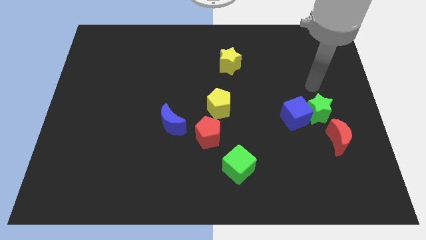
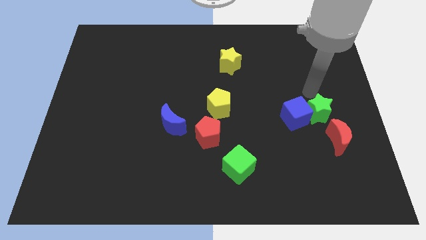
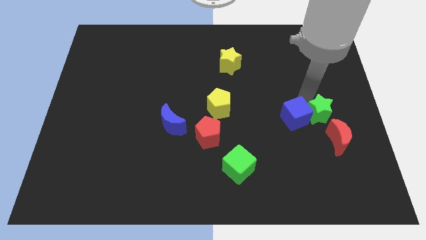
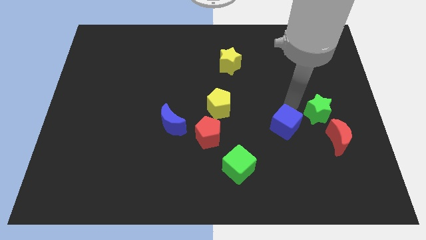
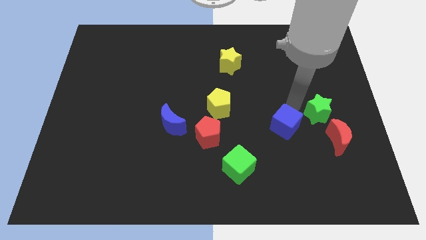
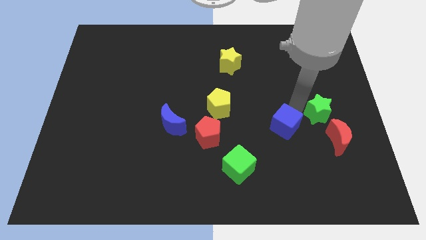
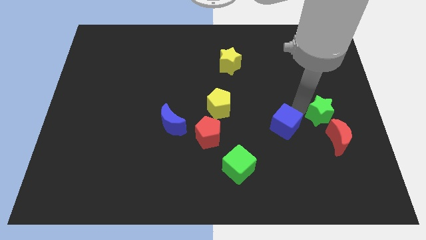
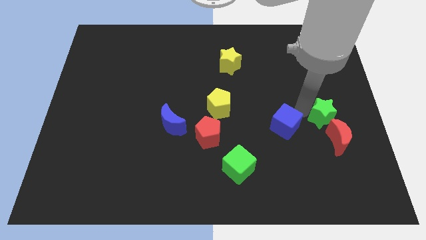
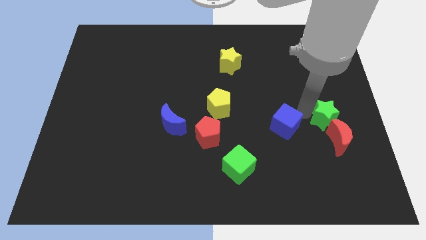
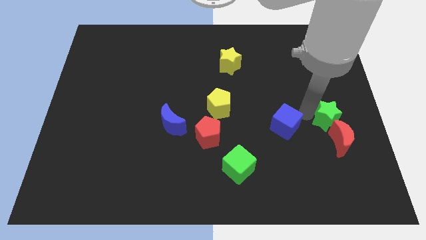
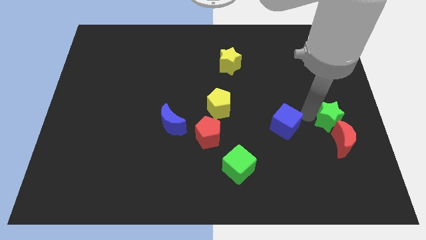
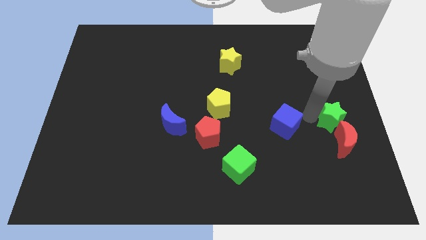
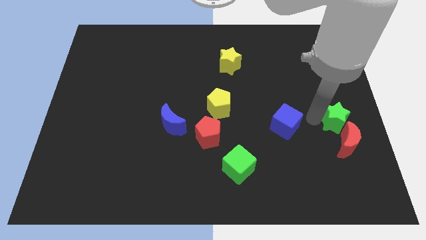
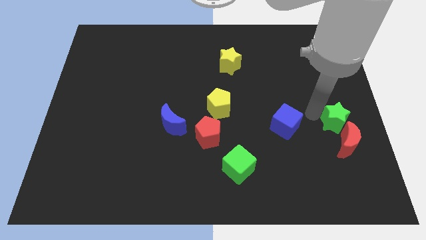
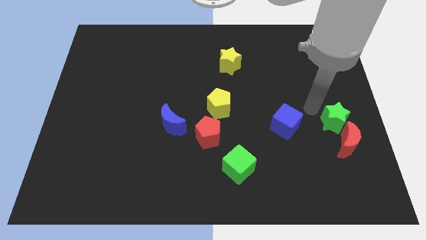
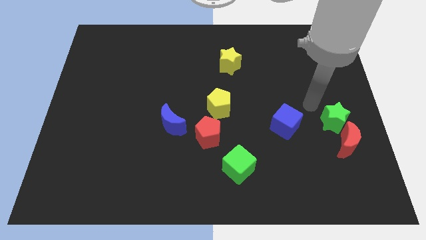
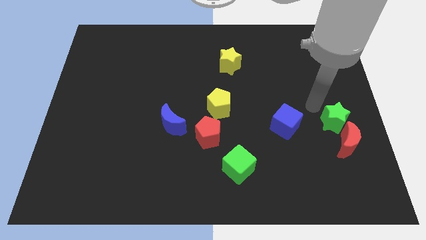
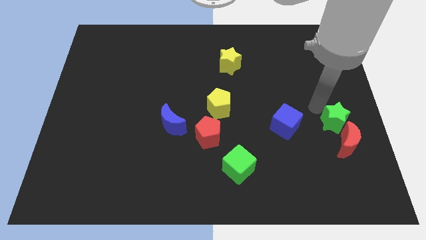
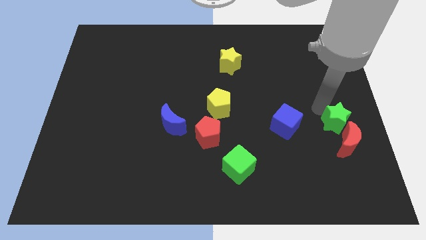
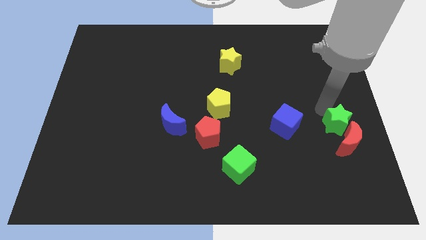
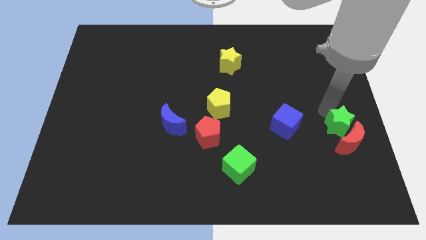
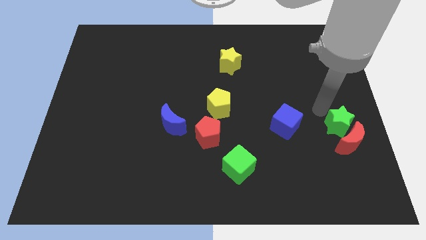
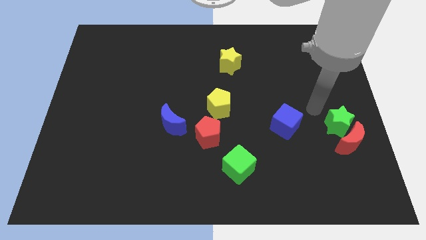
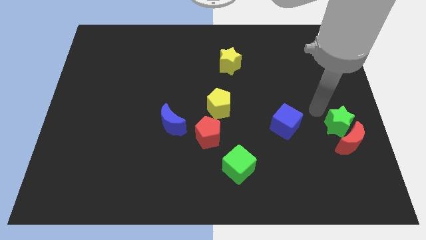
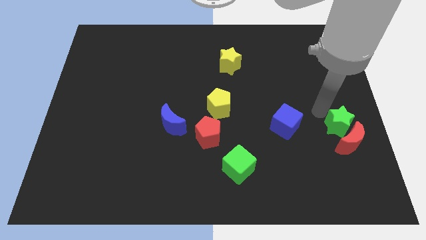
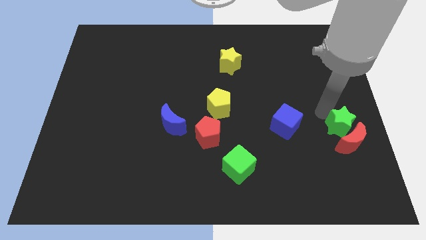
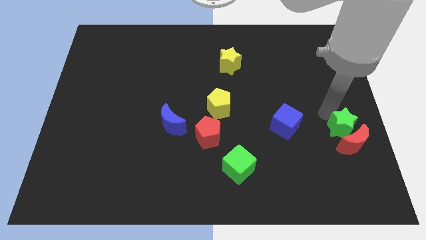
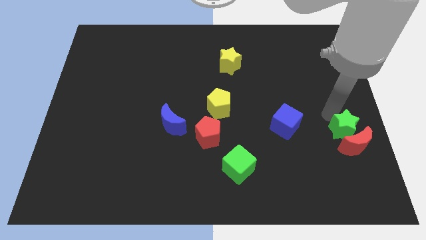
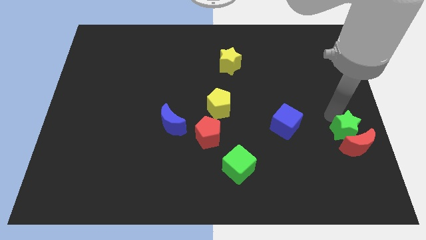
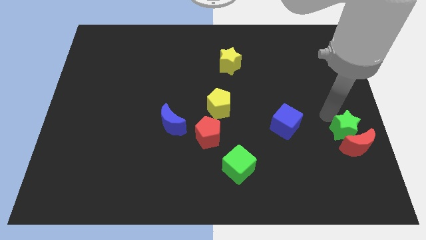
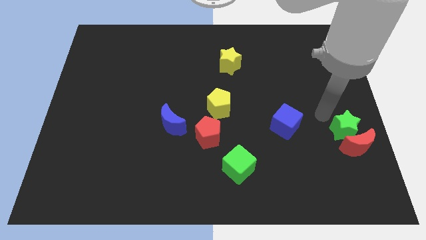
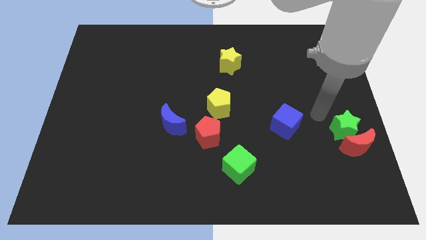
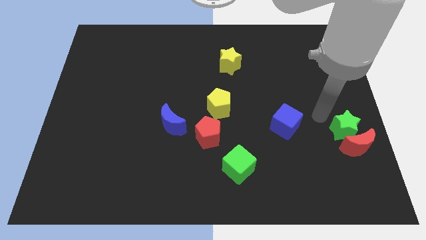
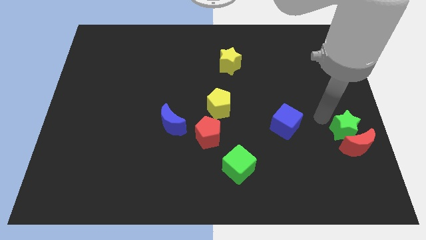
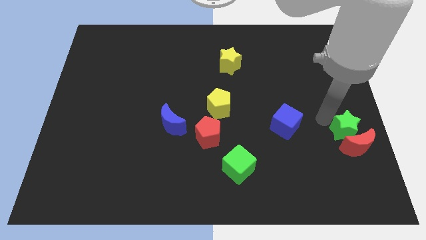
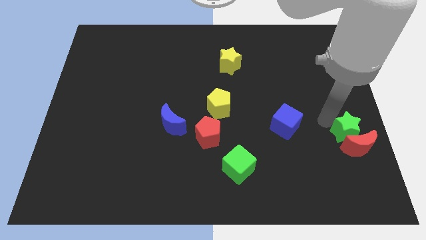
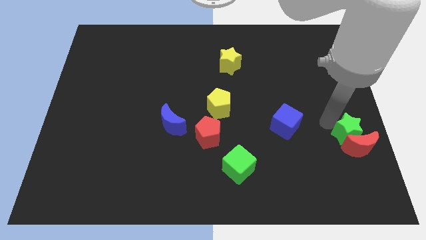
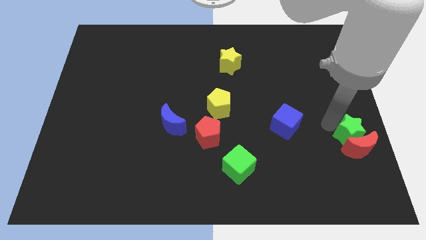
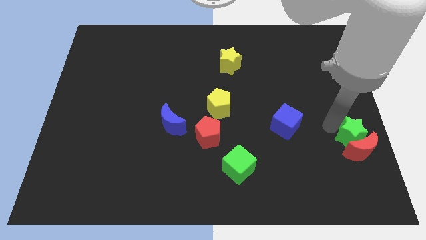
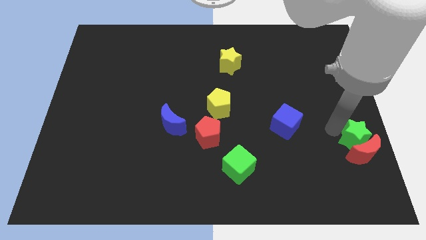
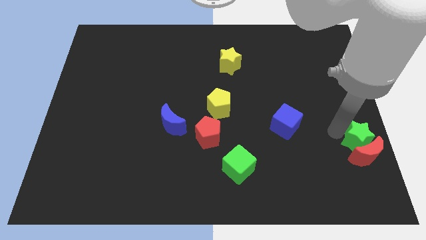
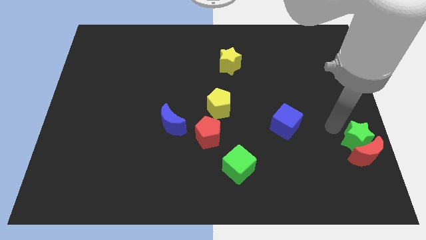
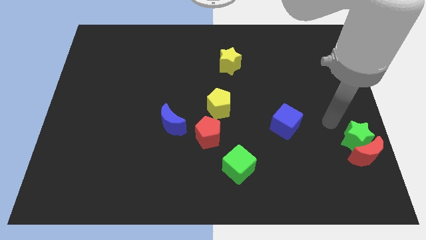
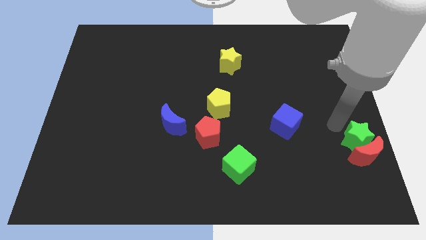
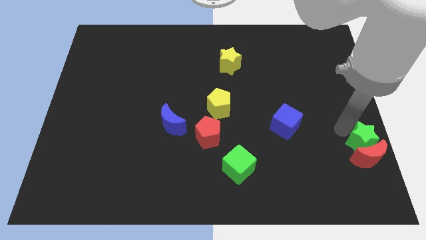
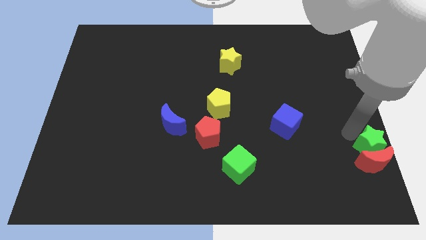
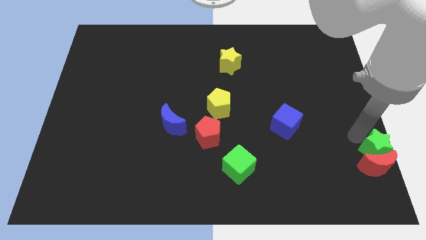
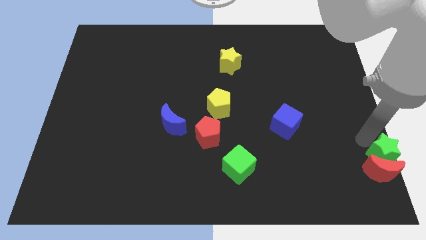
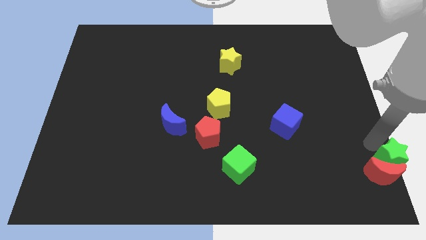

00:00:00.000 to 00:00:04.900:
put the green star to the bottom right

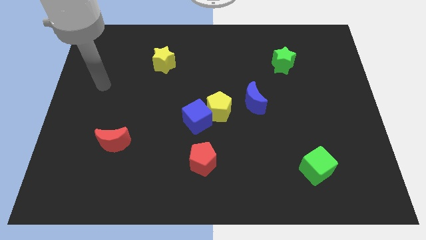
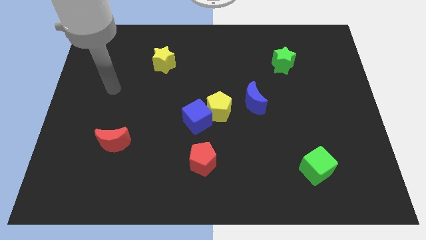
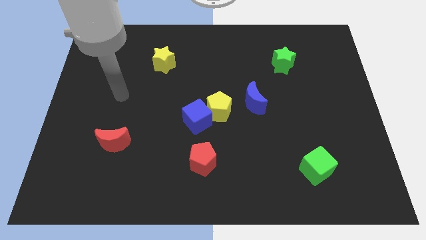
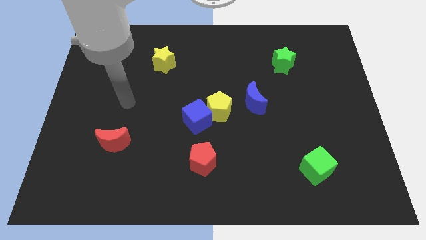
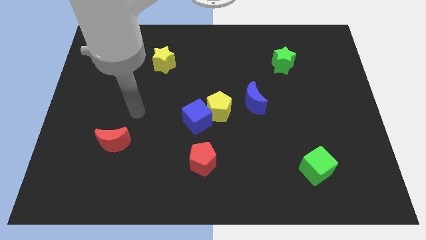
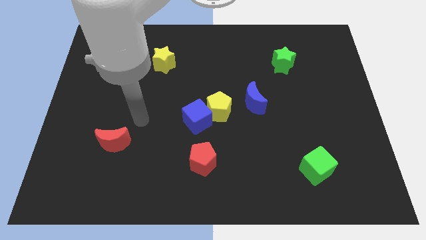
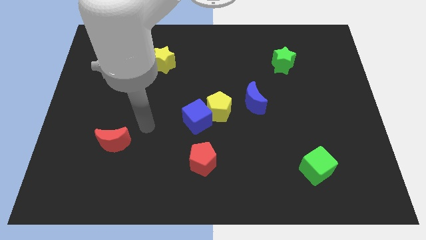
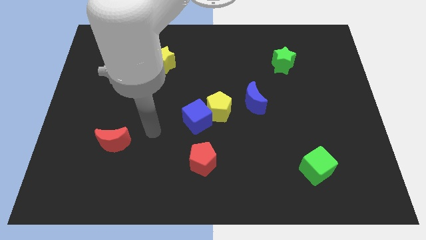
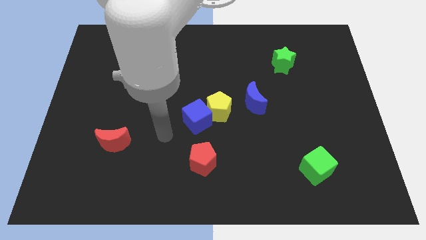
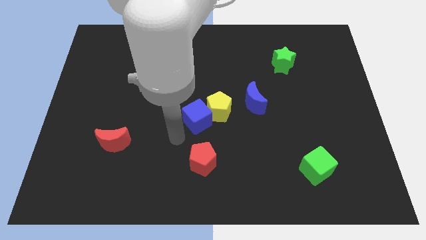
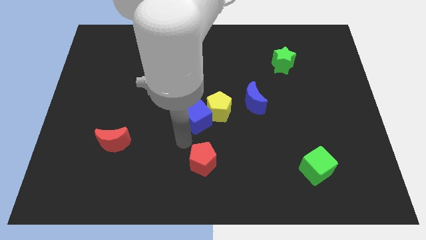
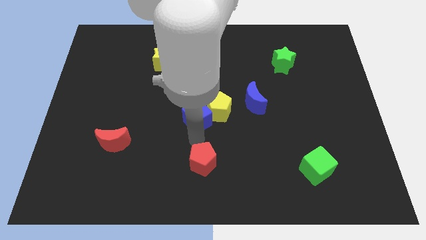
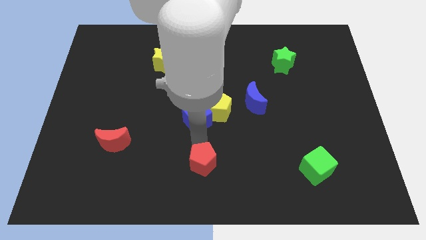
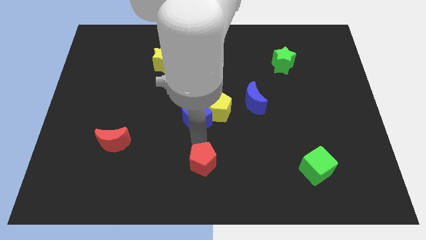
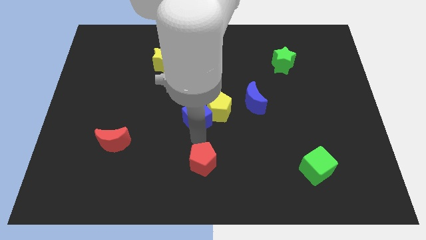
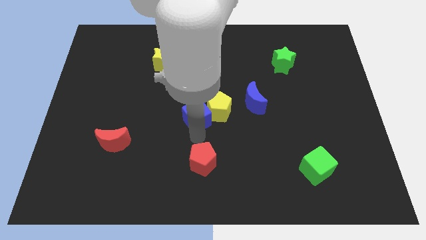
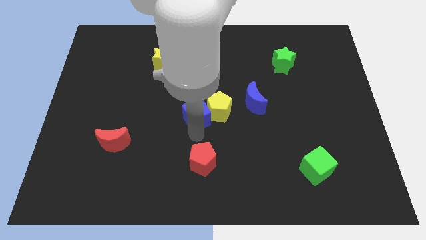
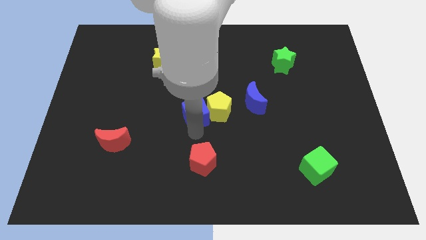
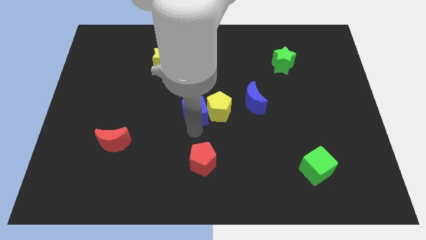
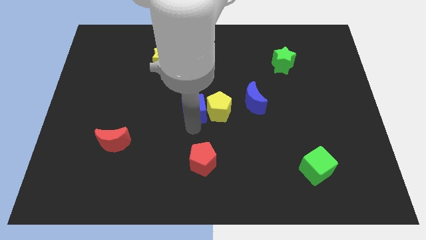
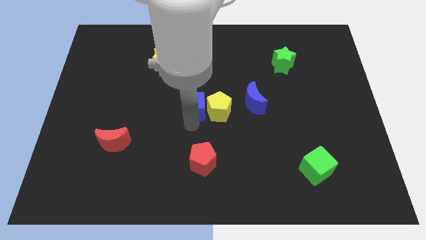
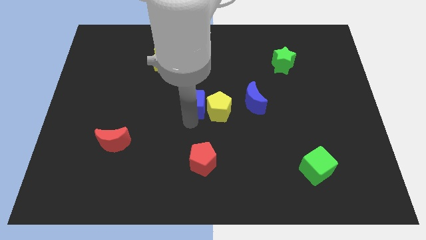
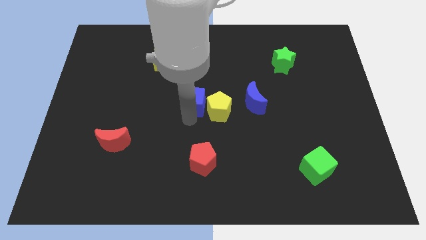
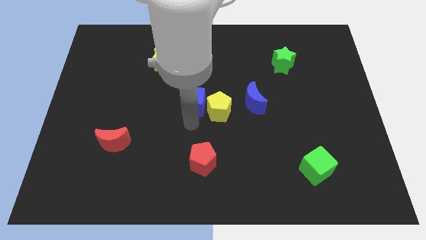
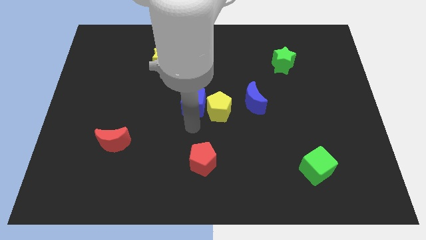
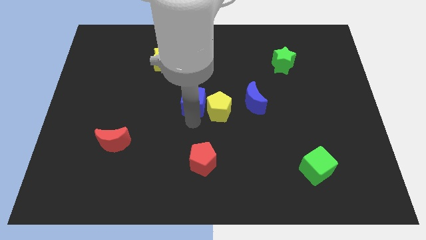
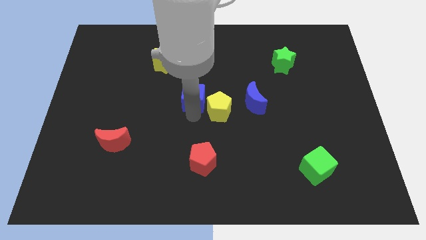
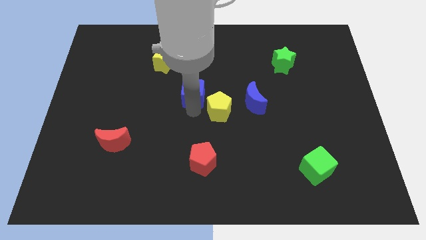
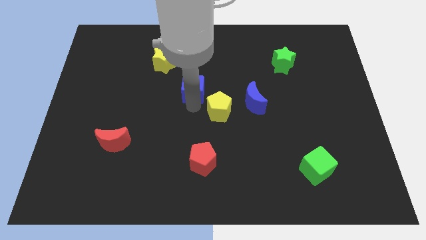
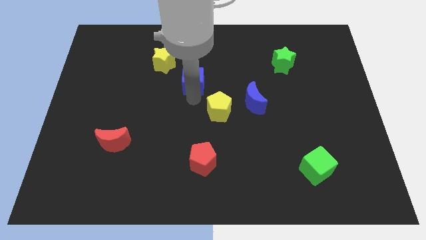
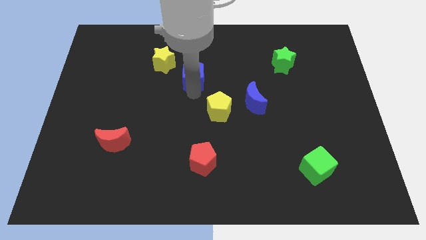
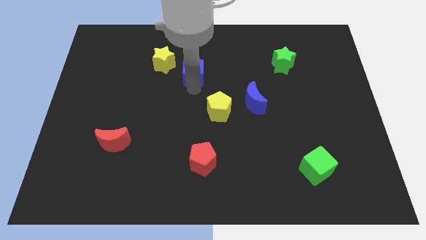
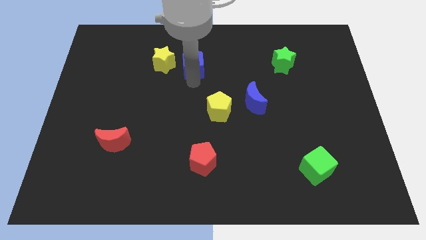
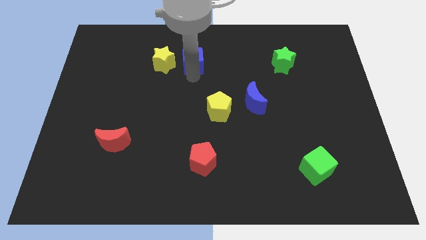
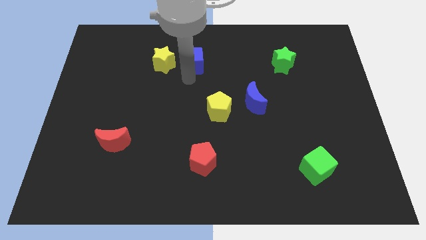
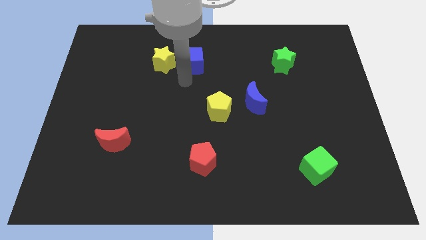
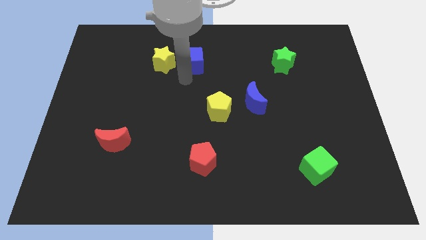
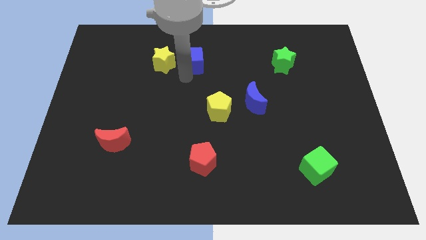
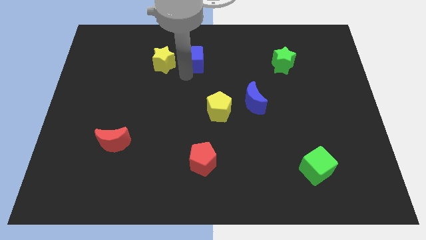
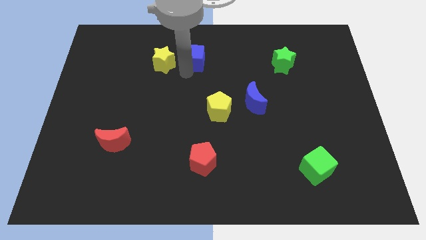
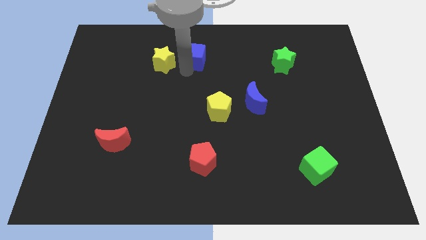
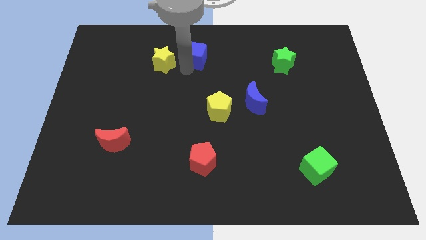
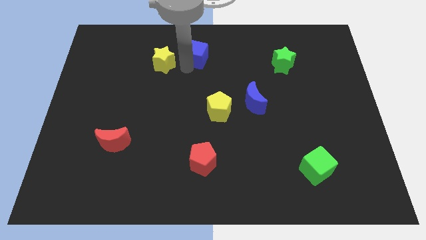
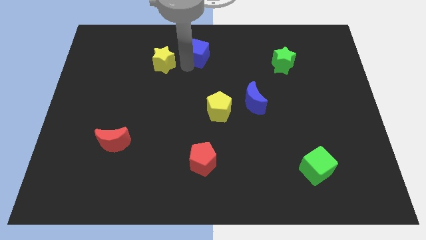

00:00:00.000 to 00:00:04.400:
move the blue cube to the top side
